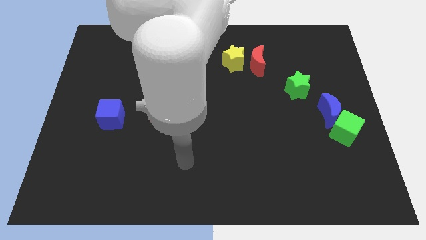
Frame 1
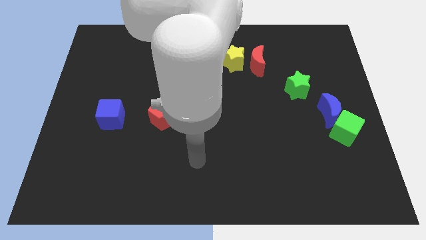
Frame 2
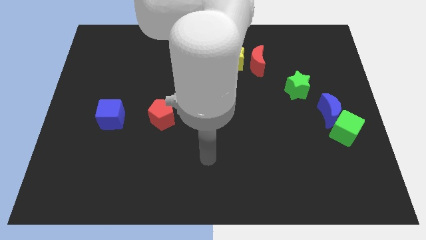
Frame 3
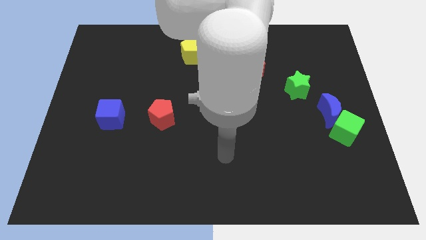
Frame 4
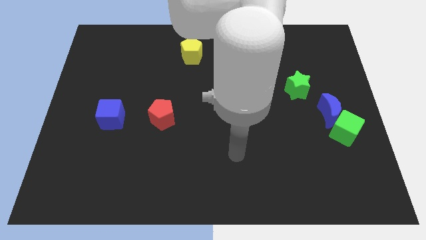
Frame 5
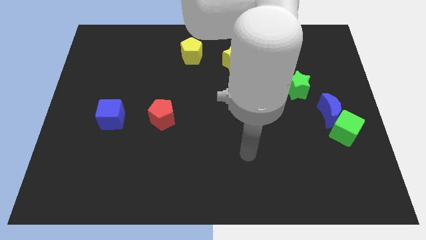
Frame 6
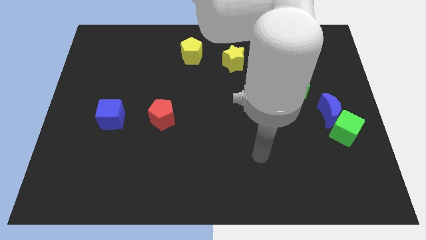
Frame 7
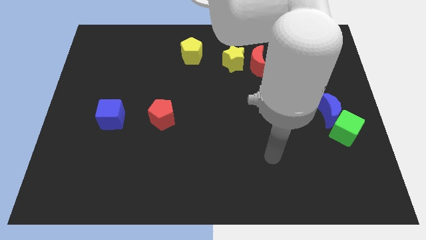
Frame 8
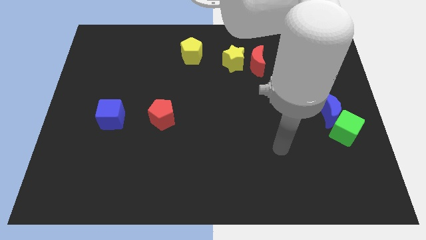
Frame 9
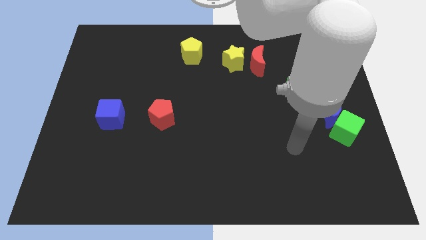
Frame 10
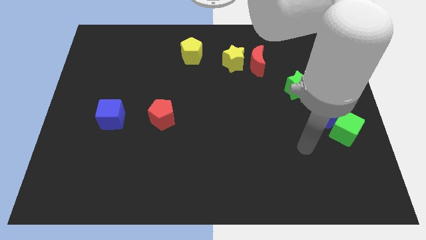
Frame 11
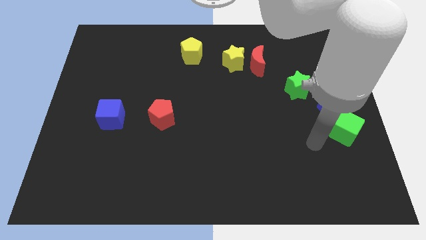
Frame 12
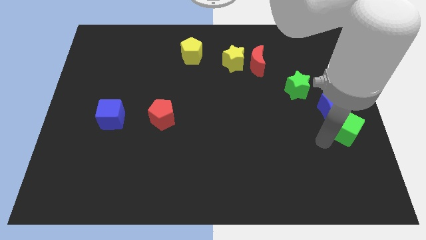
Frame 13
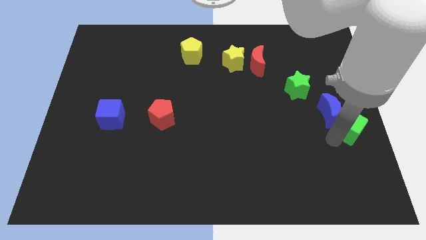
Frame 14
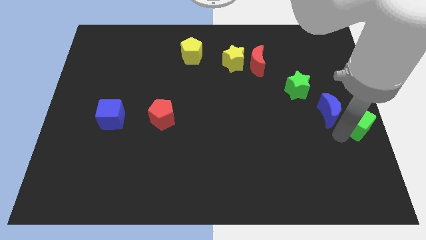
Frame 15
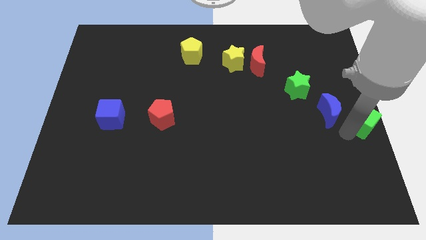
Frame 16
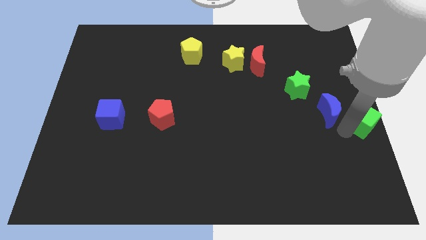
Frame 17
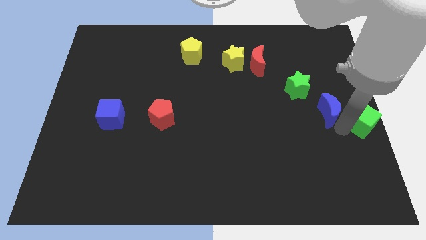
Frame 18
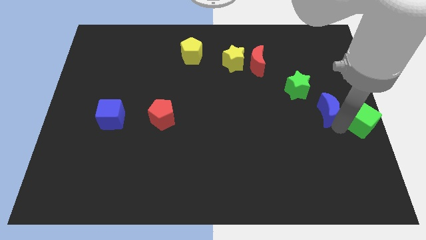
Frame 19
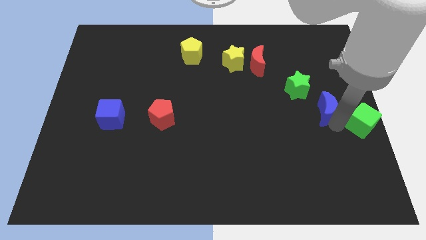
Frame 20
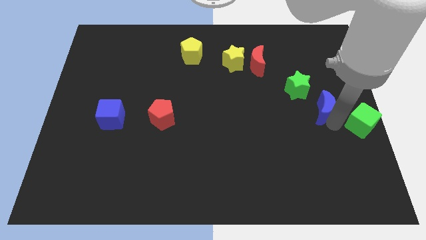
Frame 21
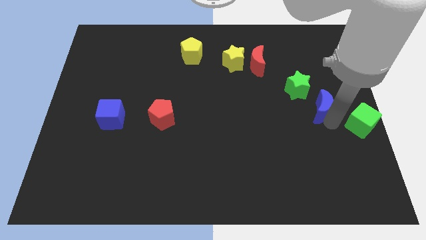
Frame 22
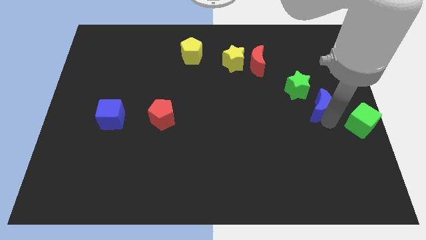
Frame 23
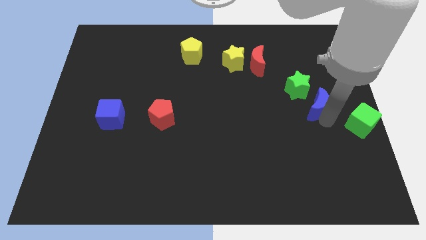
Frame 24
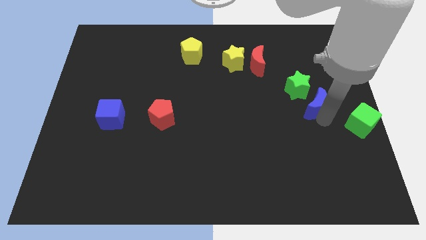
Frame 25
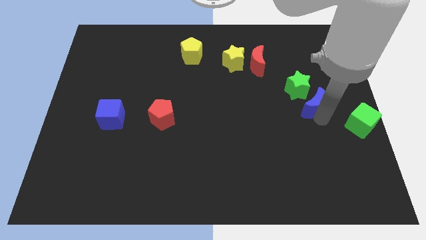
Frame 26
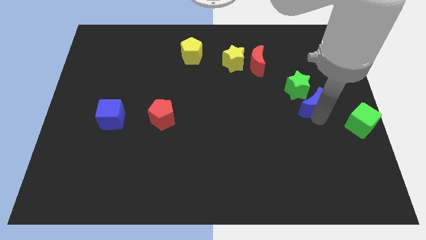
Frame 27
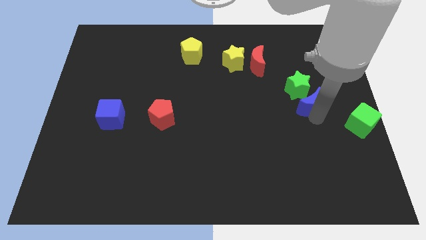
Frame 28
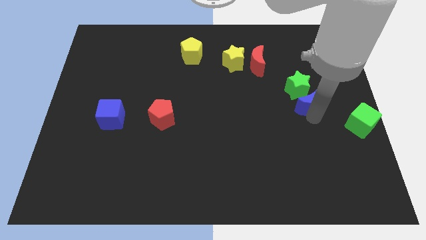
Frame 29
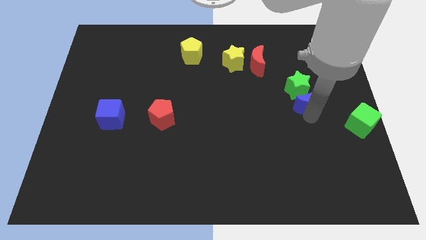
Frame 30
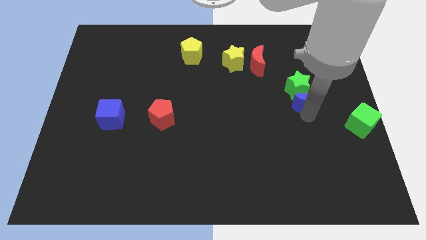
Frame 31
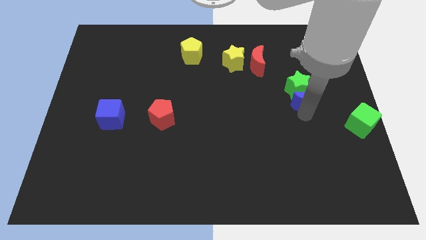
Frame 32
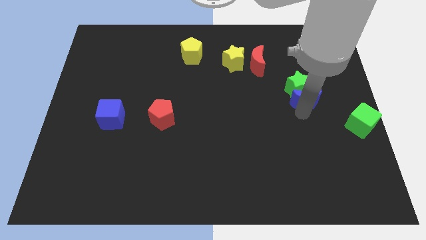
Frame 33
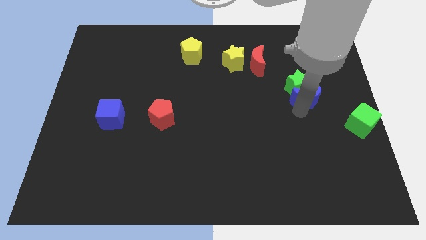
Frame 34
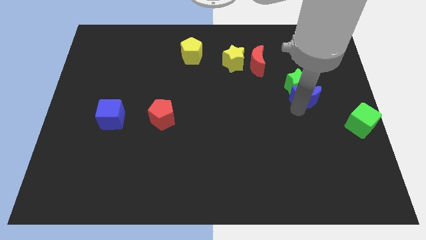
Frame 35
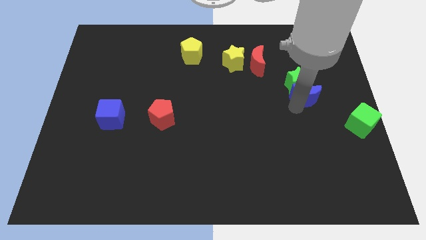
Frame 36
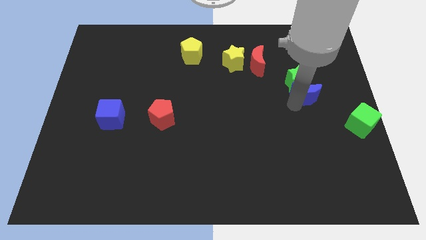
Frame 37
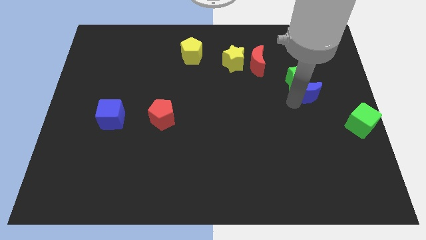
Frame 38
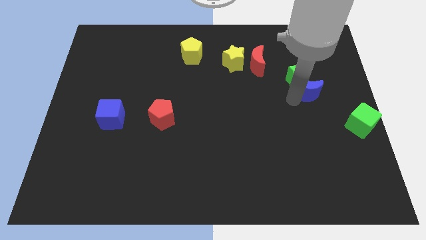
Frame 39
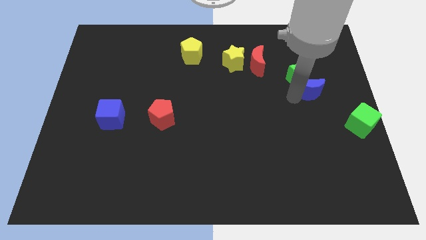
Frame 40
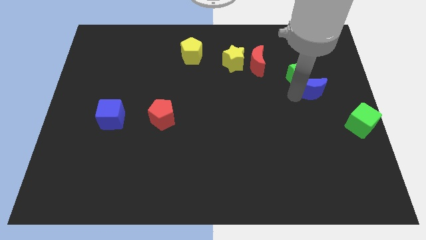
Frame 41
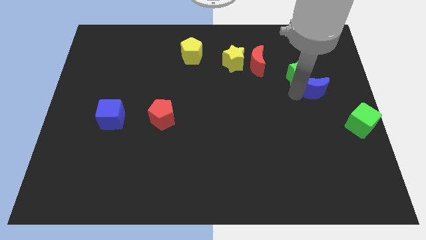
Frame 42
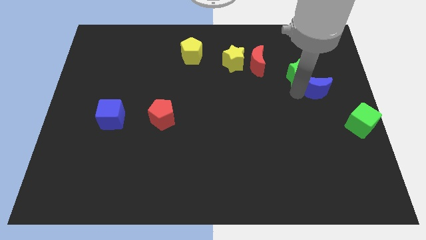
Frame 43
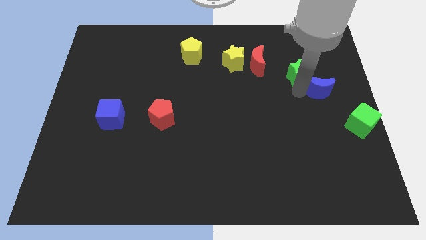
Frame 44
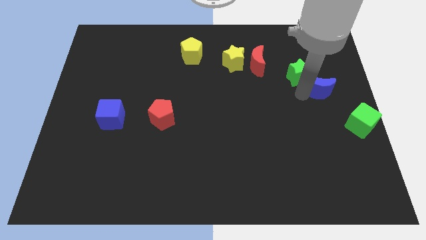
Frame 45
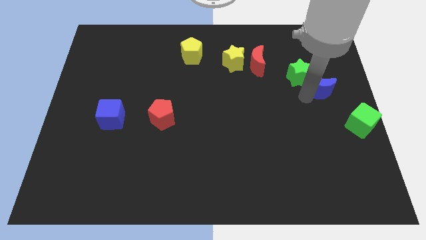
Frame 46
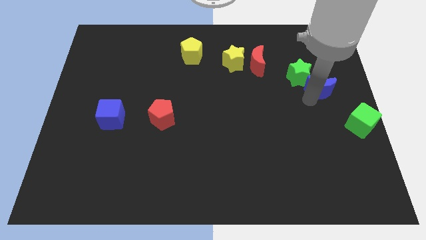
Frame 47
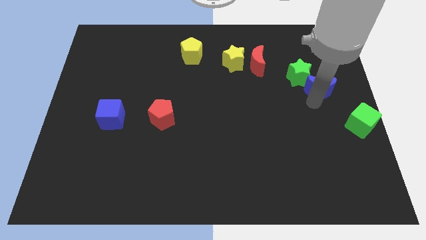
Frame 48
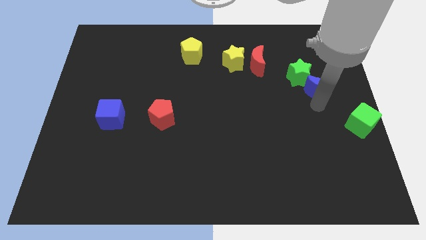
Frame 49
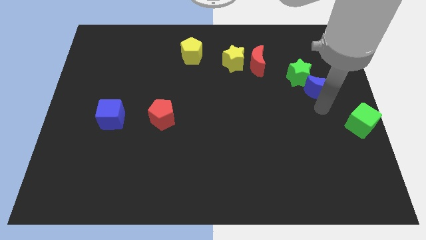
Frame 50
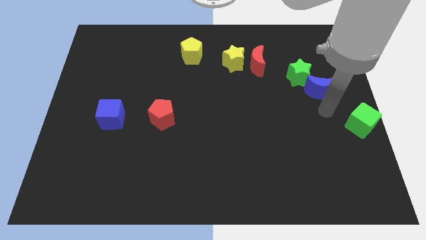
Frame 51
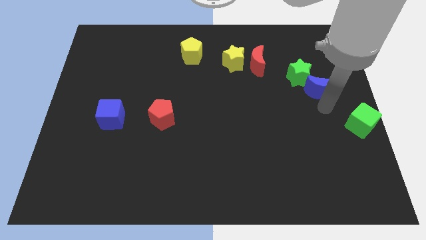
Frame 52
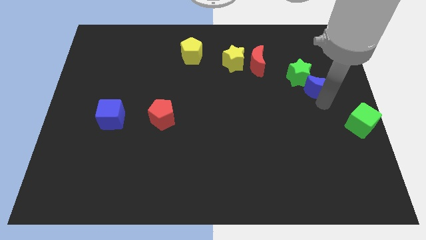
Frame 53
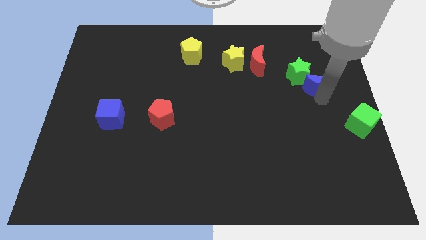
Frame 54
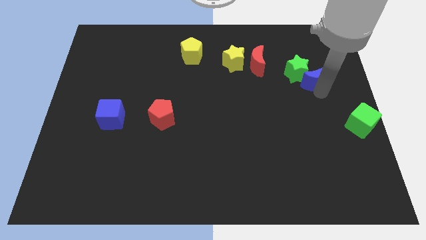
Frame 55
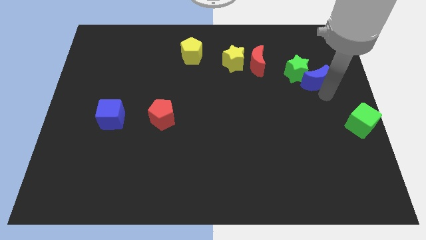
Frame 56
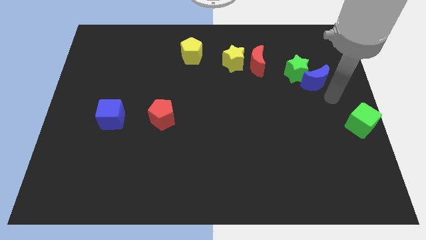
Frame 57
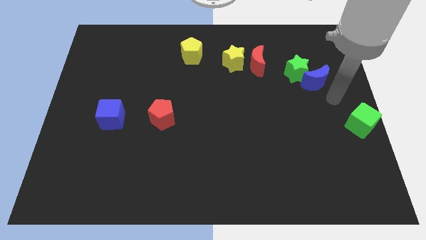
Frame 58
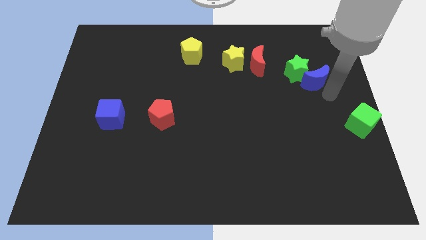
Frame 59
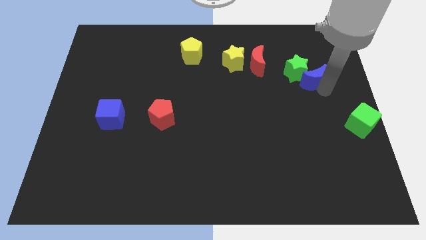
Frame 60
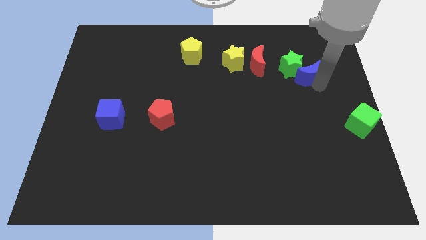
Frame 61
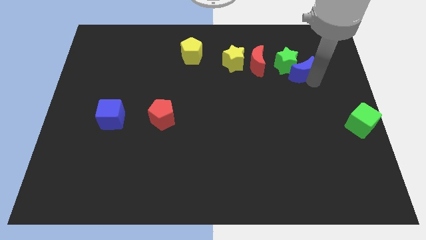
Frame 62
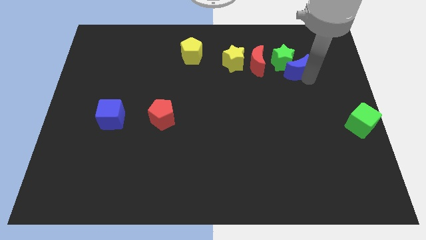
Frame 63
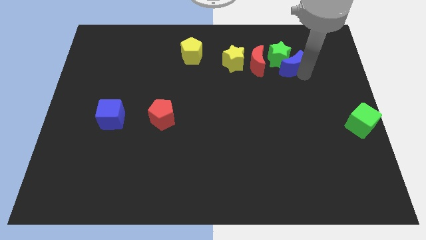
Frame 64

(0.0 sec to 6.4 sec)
put the blue moon just right of the yellow star
